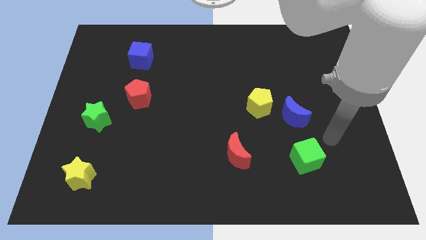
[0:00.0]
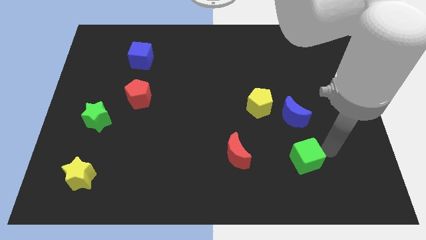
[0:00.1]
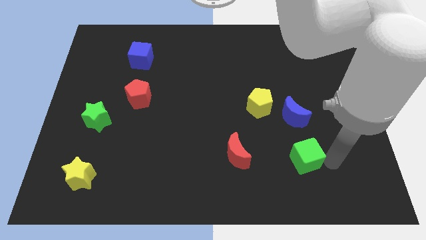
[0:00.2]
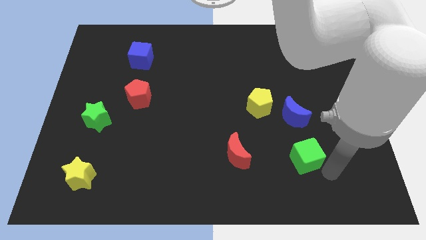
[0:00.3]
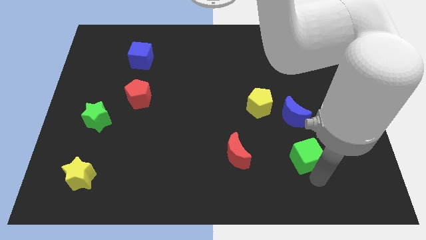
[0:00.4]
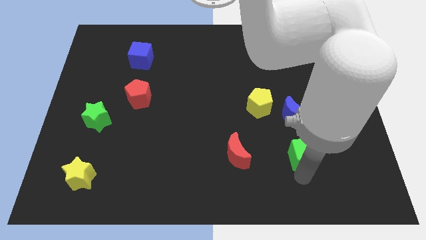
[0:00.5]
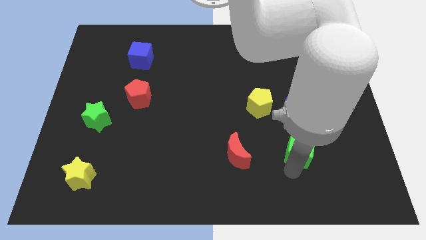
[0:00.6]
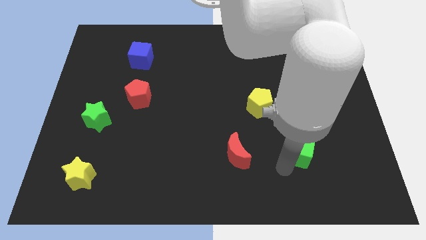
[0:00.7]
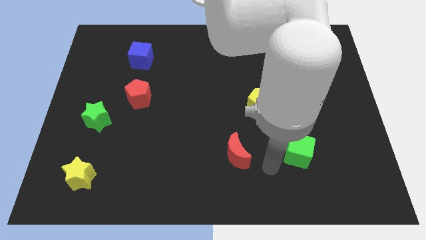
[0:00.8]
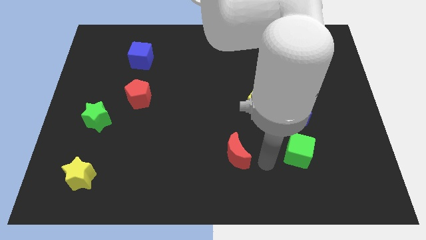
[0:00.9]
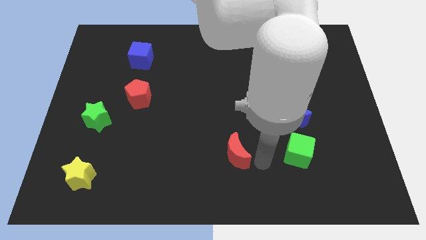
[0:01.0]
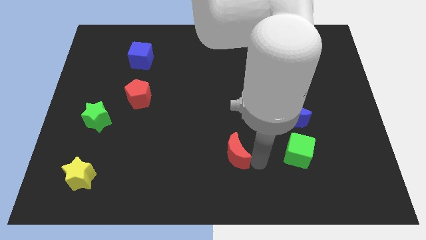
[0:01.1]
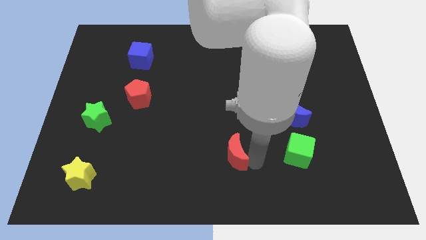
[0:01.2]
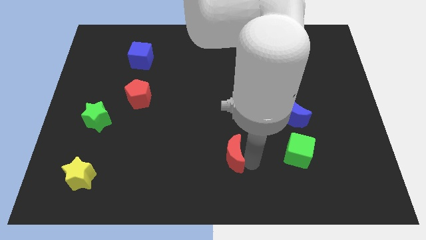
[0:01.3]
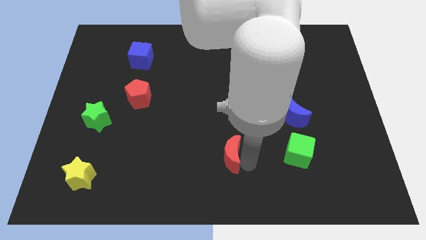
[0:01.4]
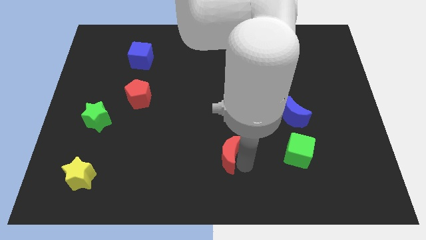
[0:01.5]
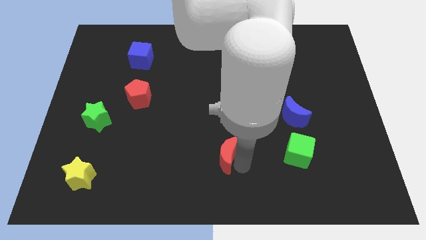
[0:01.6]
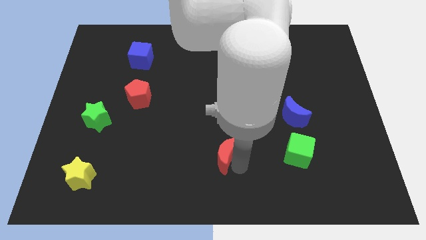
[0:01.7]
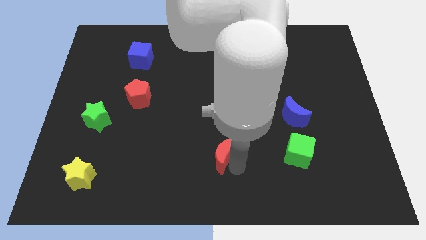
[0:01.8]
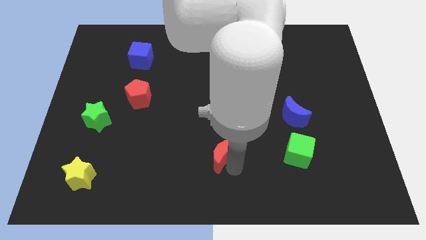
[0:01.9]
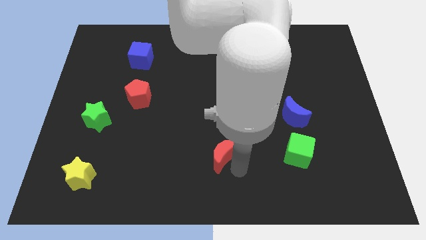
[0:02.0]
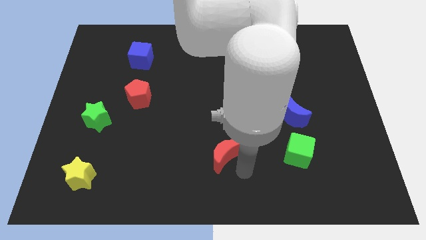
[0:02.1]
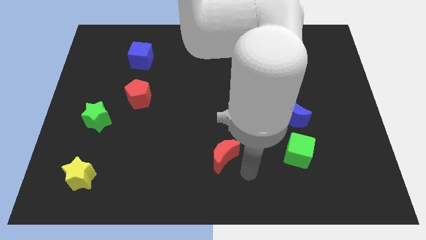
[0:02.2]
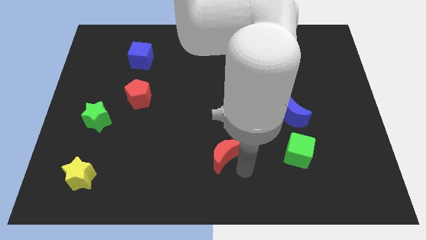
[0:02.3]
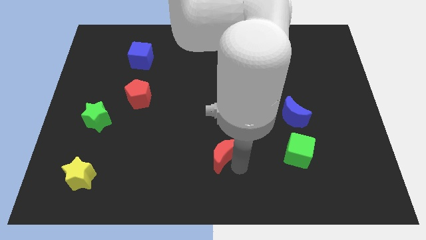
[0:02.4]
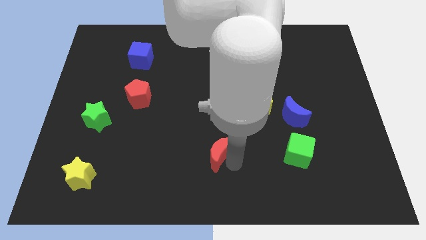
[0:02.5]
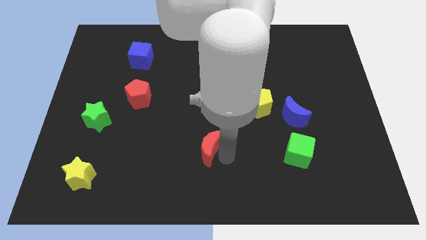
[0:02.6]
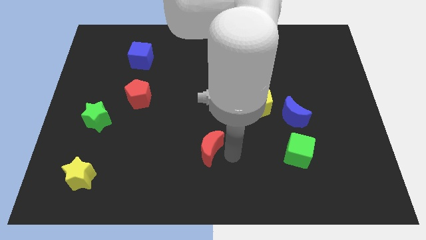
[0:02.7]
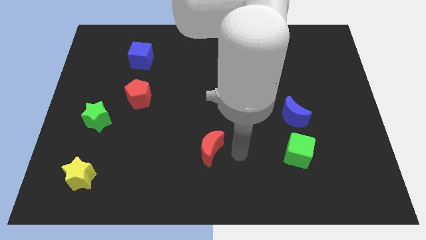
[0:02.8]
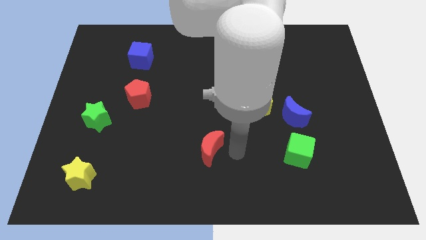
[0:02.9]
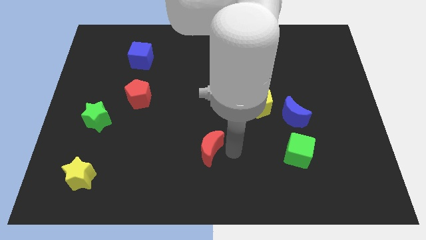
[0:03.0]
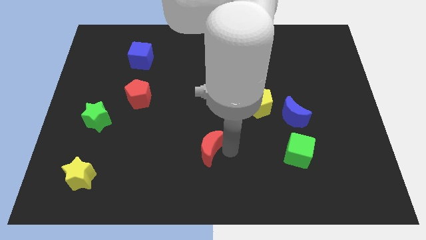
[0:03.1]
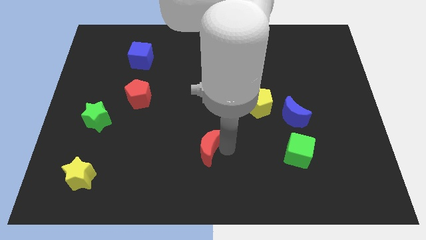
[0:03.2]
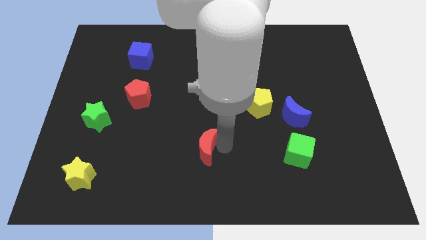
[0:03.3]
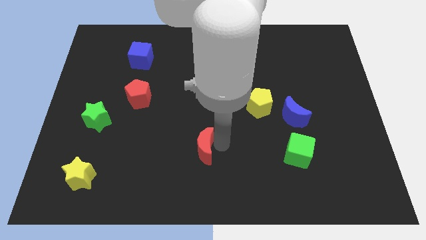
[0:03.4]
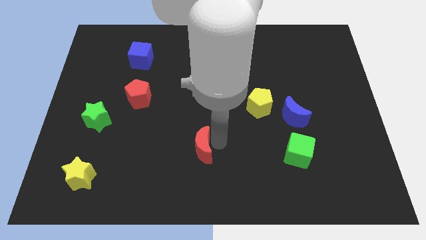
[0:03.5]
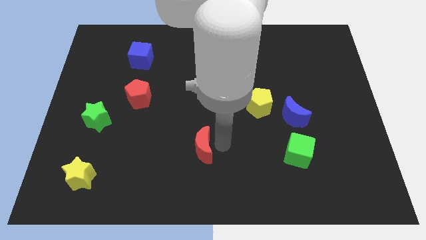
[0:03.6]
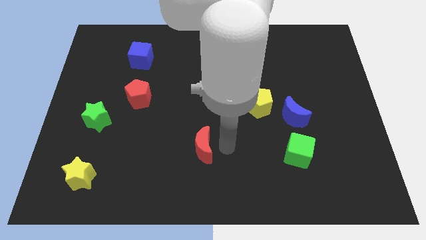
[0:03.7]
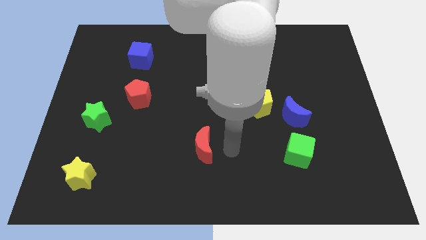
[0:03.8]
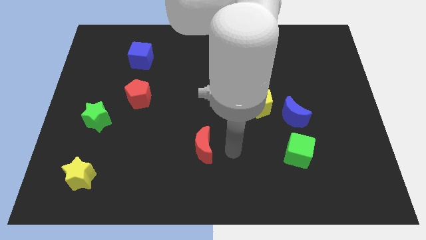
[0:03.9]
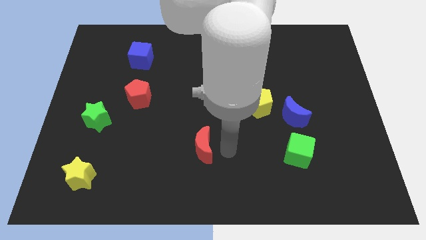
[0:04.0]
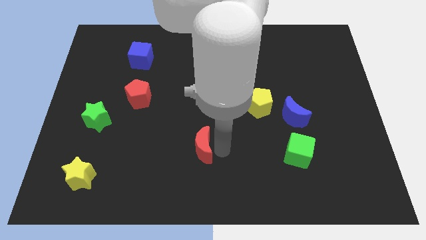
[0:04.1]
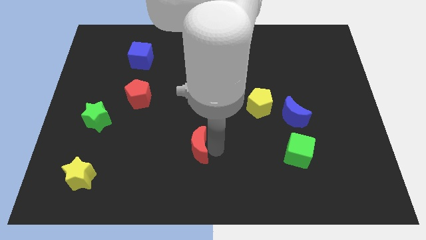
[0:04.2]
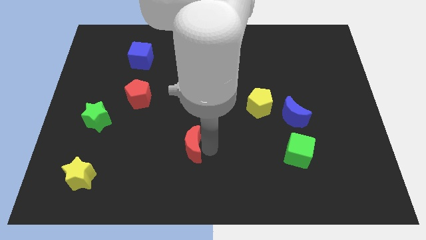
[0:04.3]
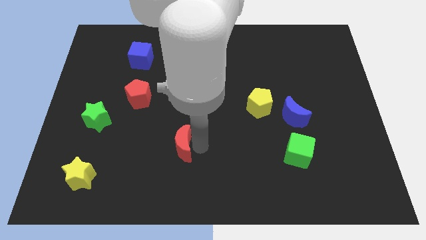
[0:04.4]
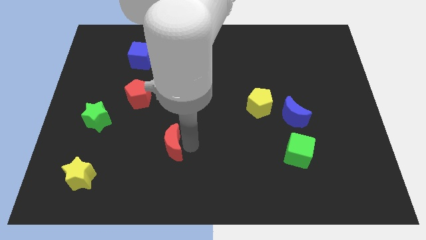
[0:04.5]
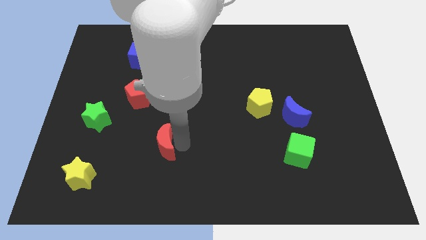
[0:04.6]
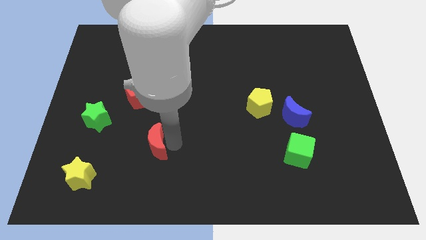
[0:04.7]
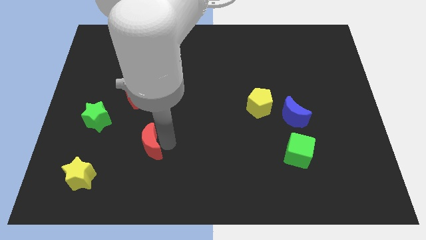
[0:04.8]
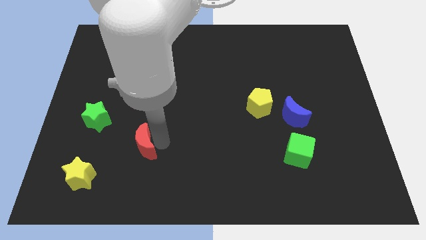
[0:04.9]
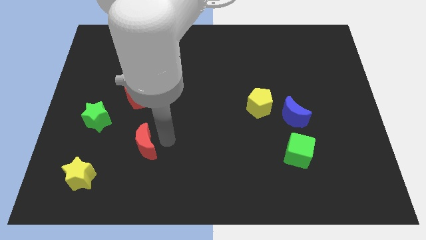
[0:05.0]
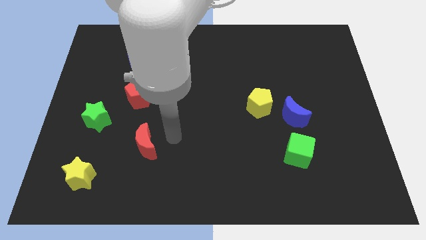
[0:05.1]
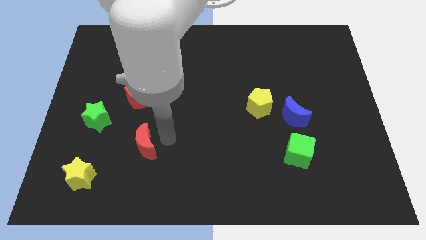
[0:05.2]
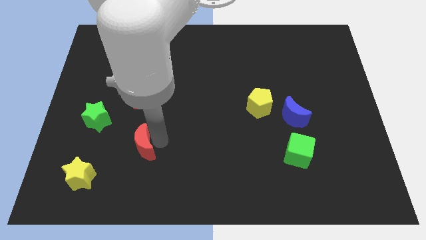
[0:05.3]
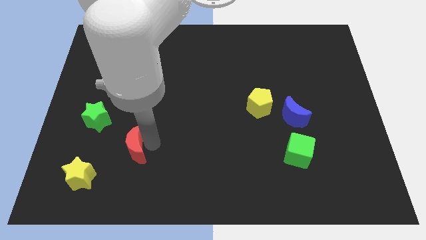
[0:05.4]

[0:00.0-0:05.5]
slide the red moon diagonally up and to the right of the yellow star

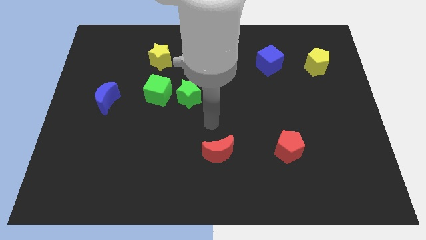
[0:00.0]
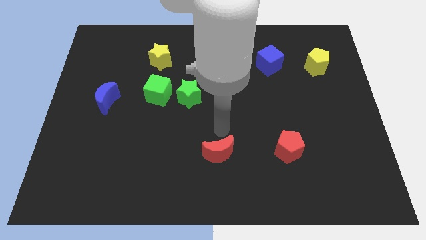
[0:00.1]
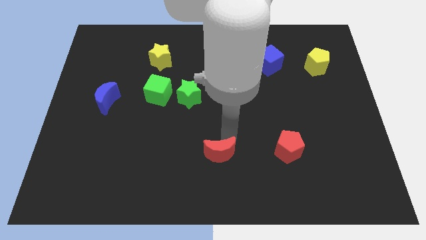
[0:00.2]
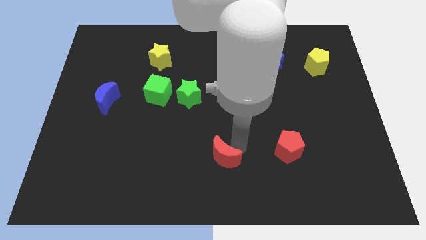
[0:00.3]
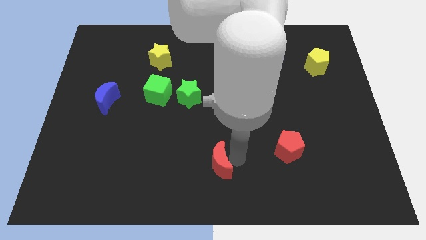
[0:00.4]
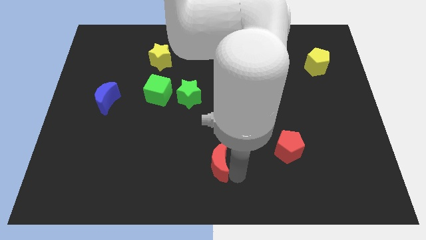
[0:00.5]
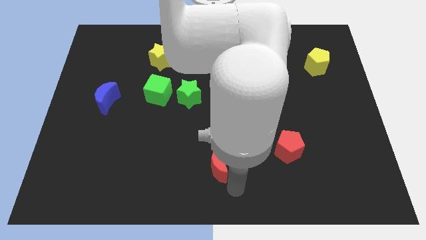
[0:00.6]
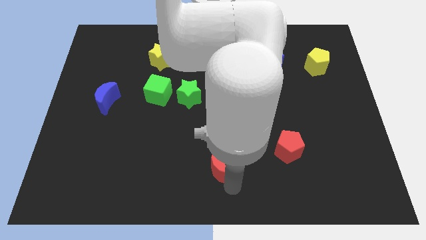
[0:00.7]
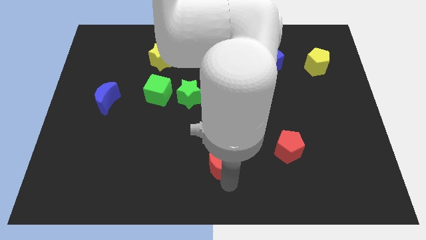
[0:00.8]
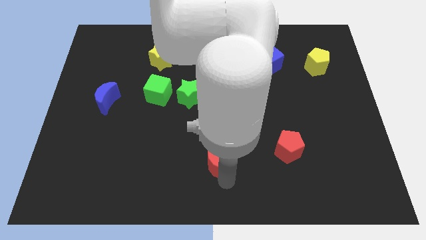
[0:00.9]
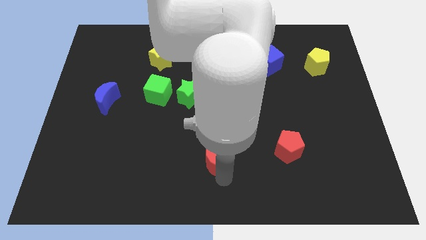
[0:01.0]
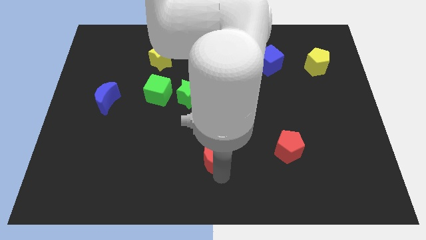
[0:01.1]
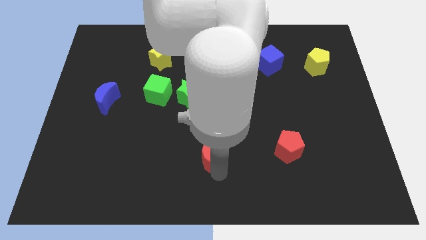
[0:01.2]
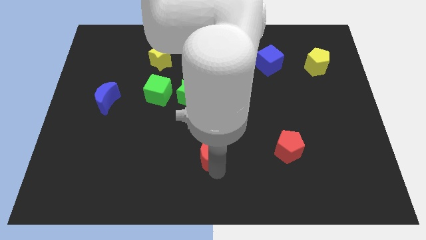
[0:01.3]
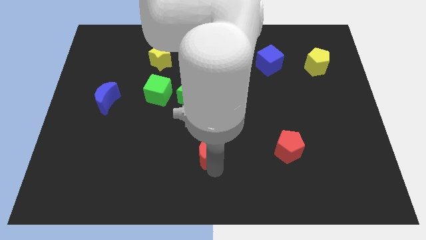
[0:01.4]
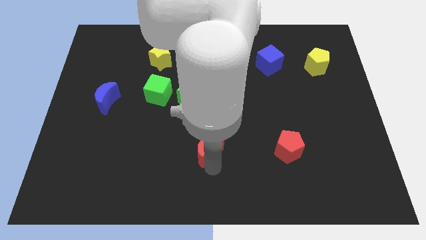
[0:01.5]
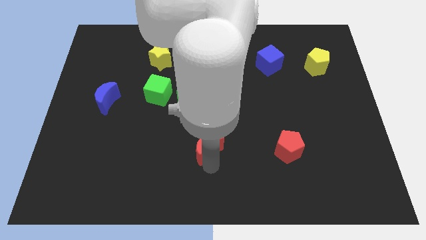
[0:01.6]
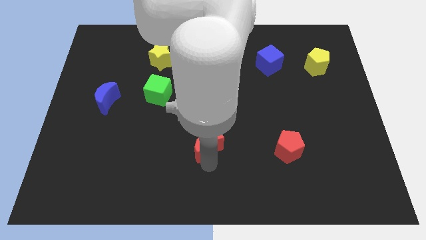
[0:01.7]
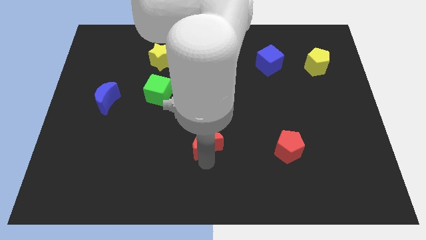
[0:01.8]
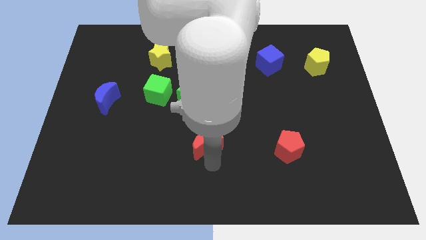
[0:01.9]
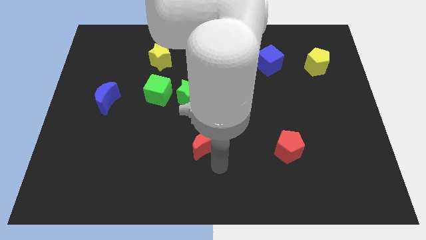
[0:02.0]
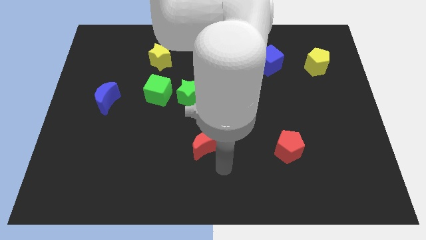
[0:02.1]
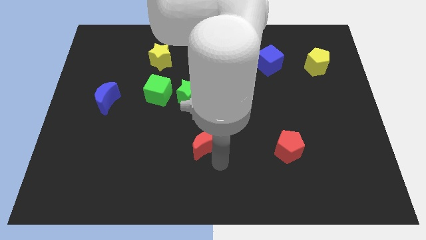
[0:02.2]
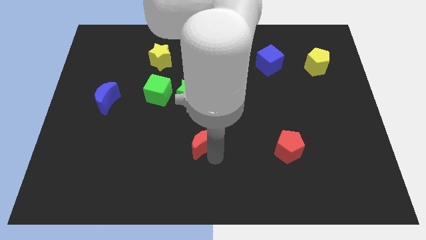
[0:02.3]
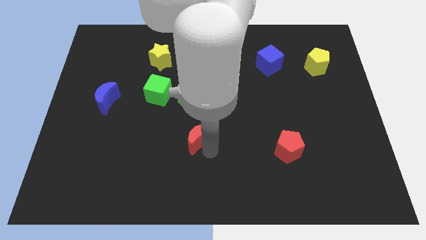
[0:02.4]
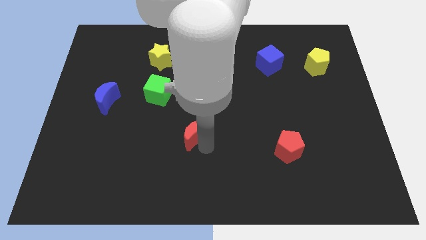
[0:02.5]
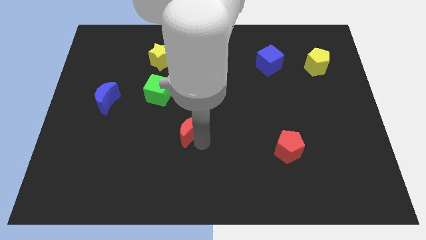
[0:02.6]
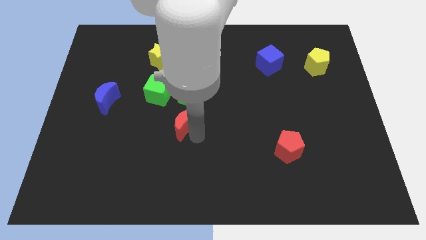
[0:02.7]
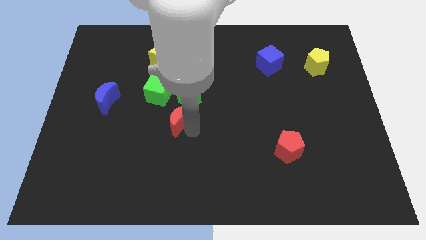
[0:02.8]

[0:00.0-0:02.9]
put the red moon diagonally down and to the left of the green star
